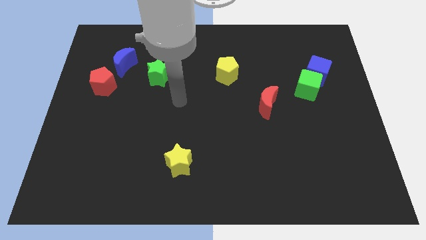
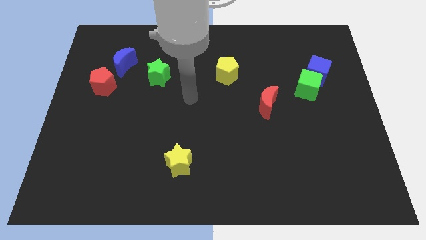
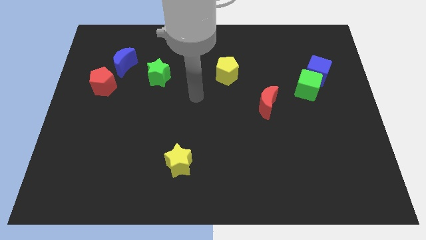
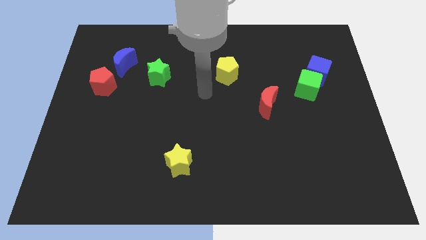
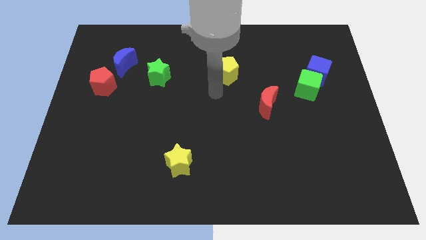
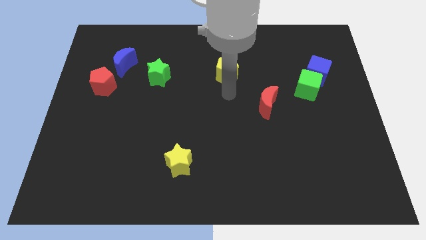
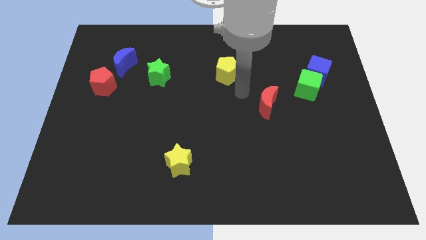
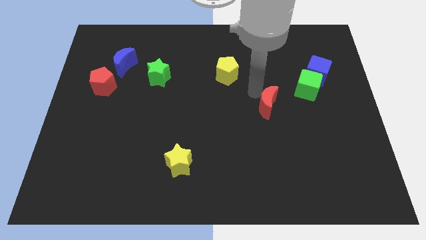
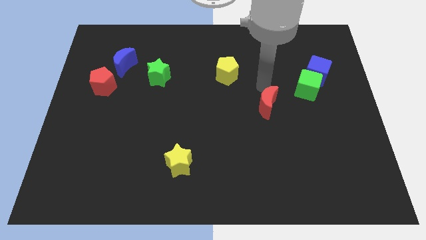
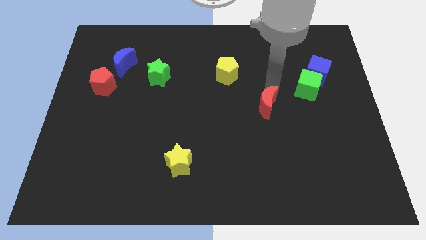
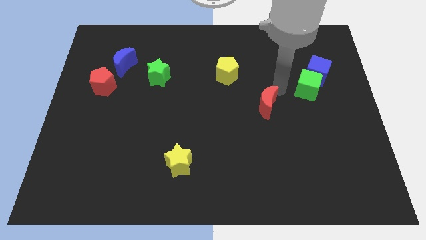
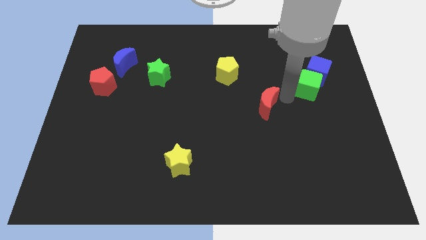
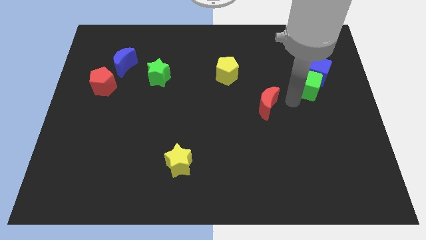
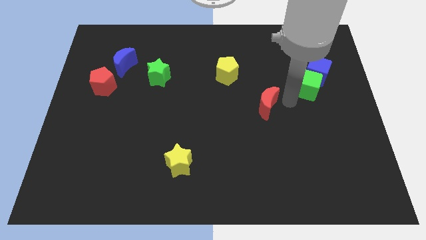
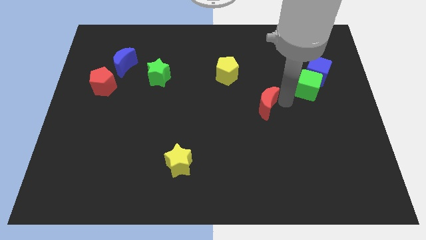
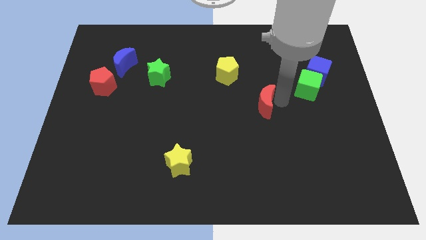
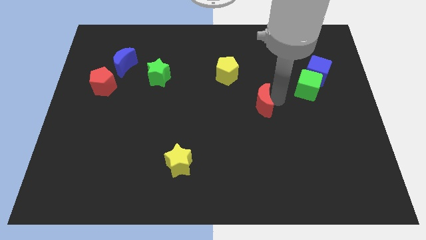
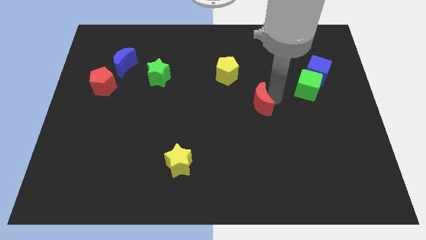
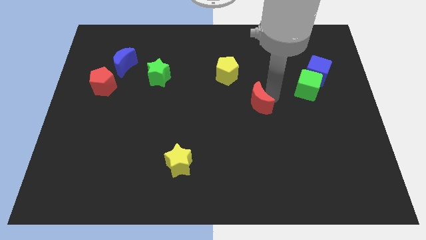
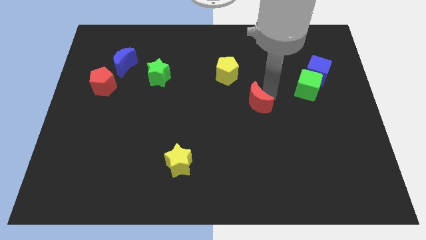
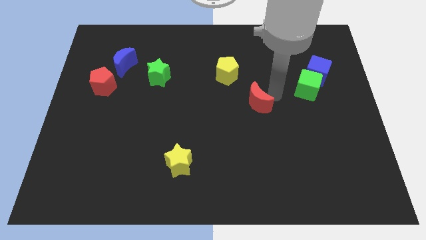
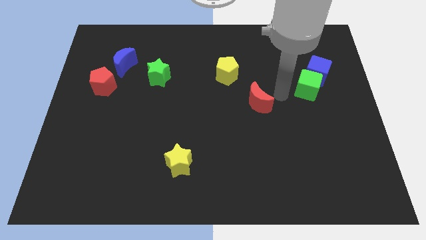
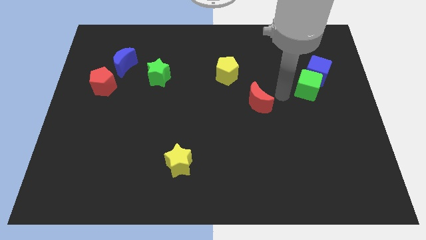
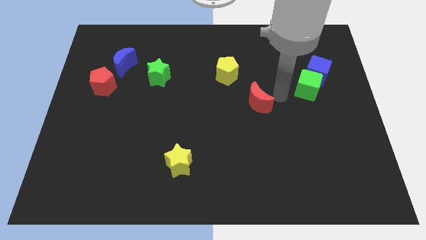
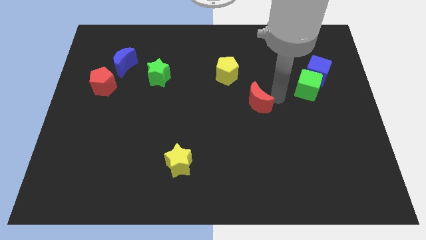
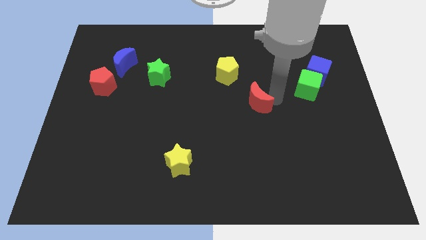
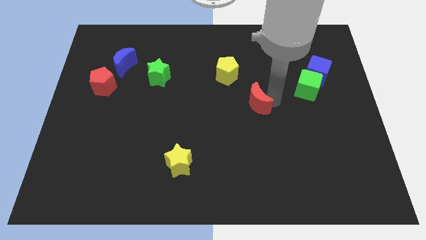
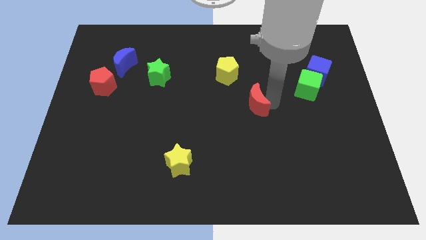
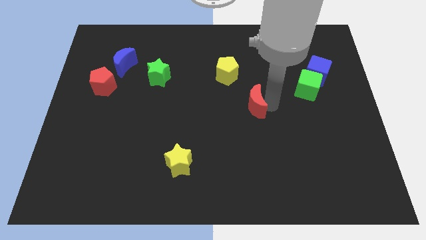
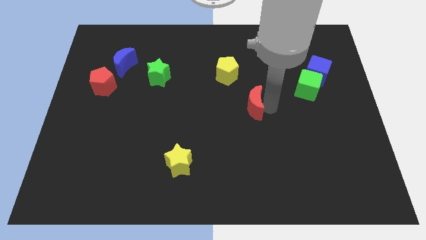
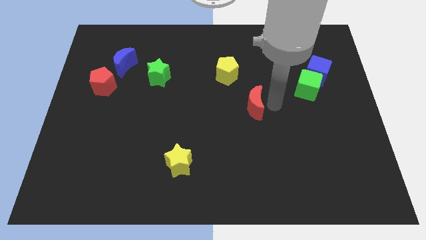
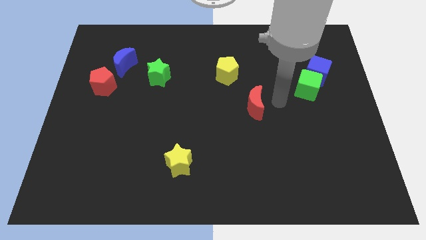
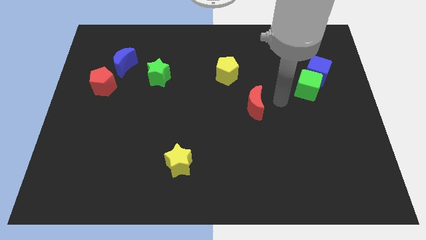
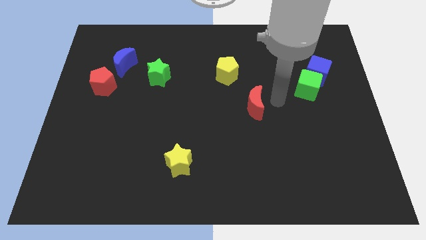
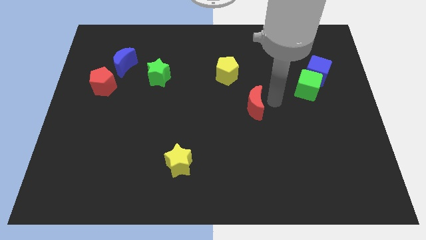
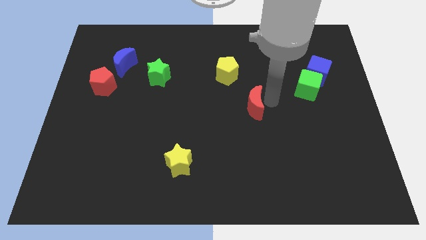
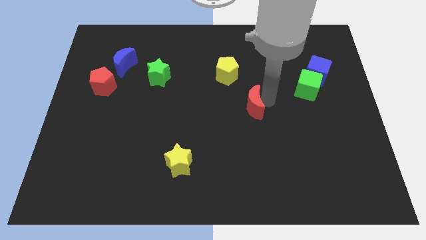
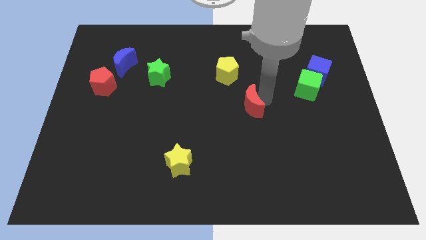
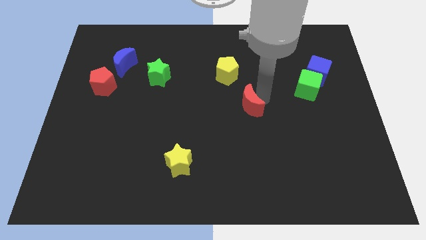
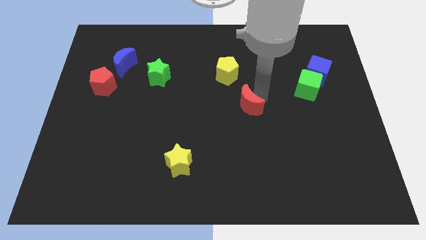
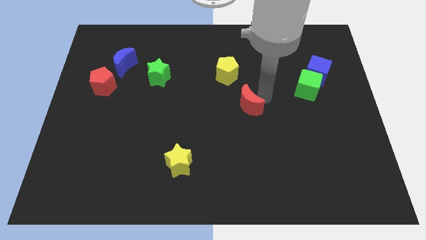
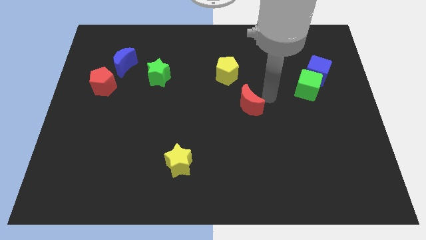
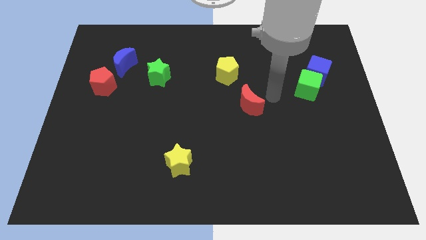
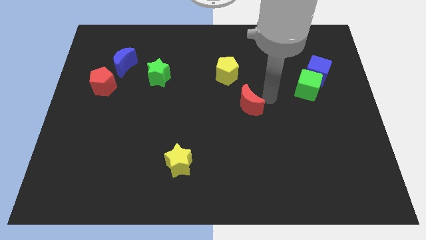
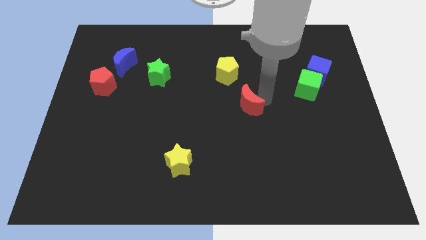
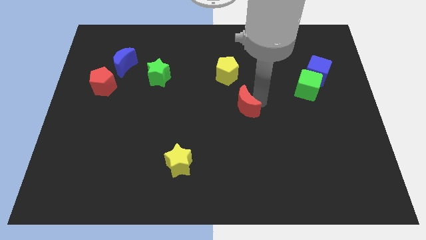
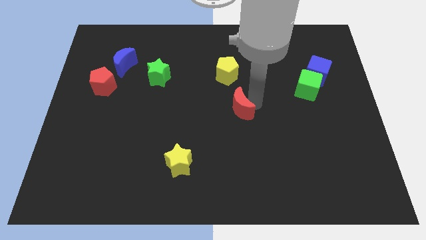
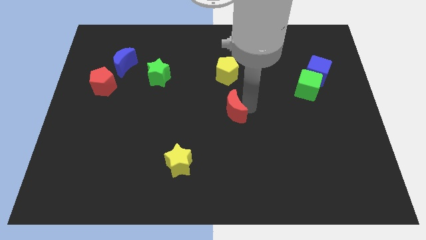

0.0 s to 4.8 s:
push the red moon a bit to the left

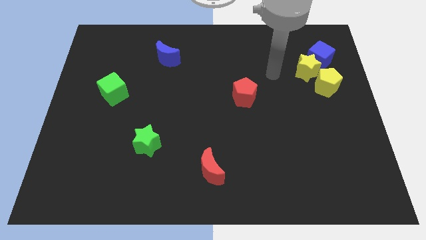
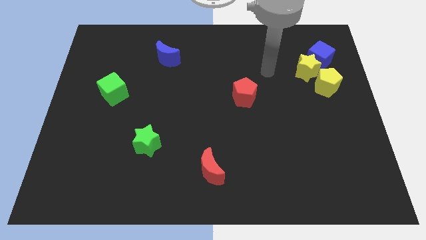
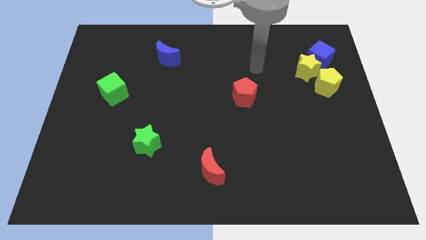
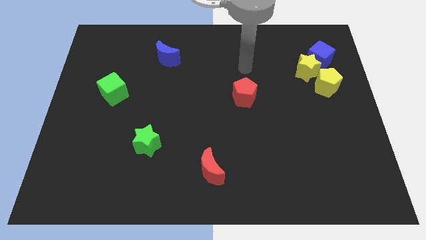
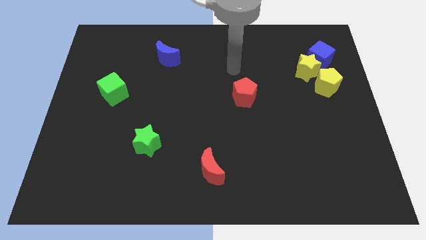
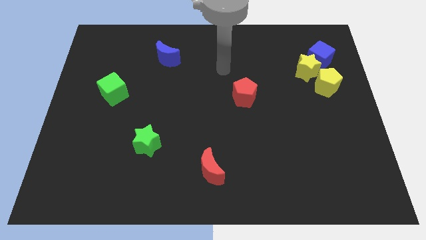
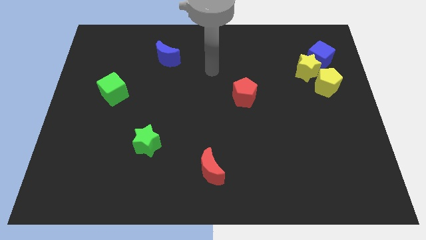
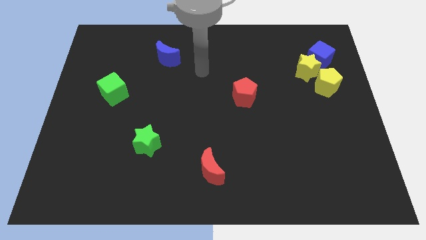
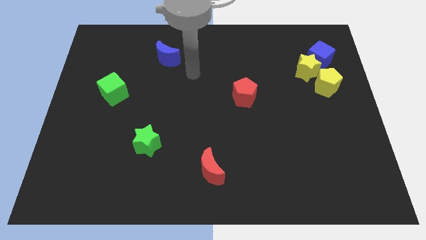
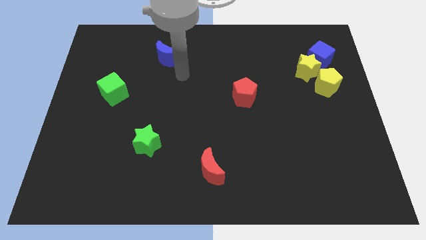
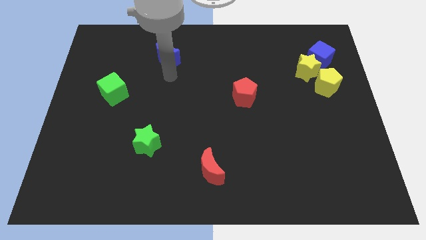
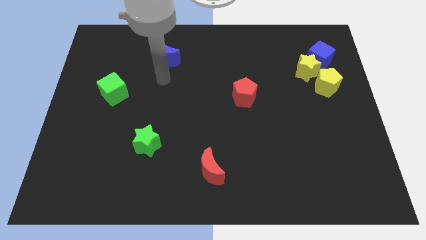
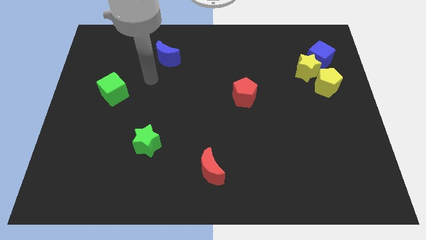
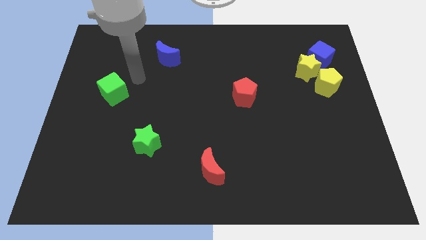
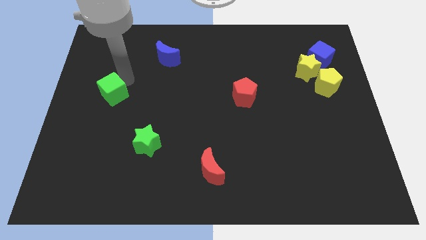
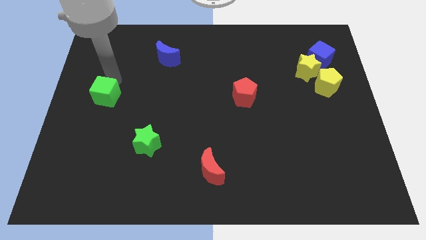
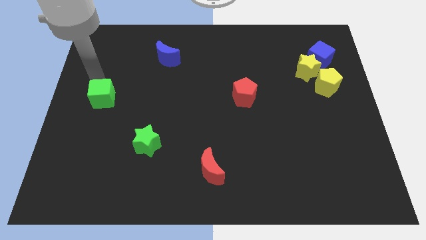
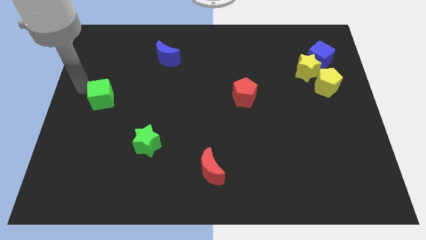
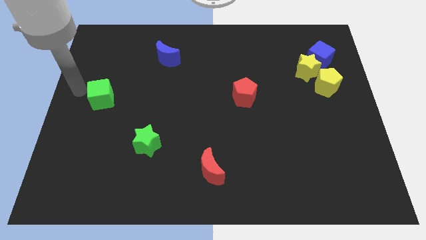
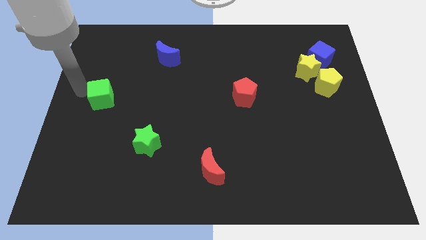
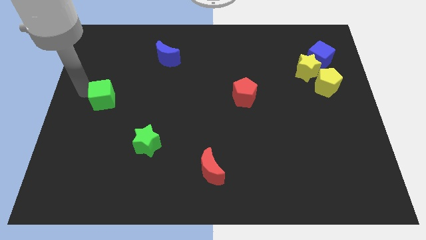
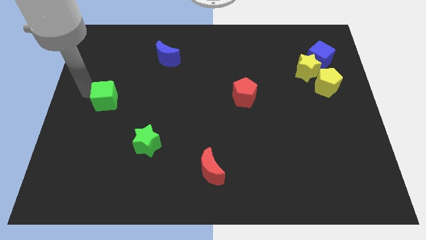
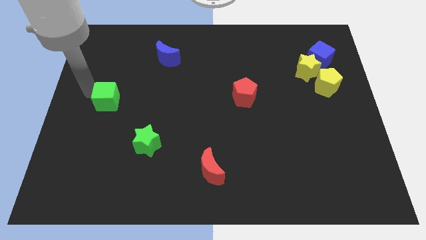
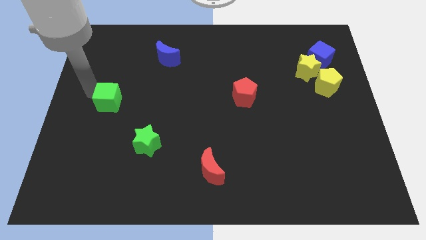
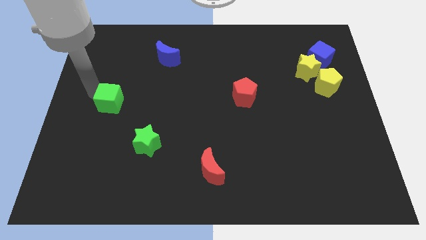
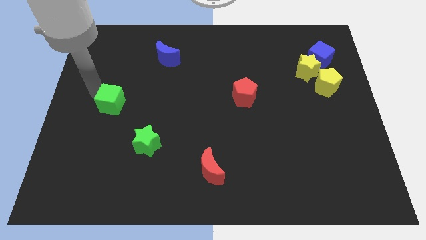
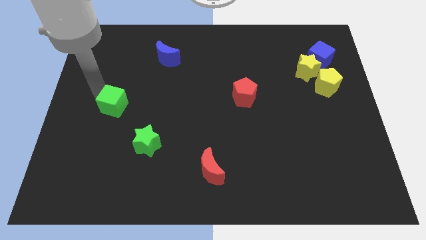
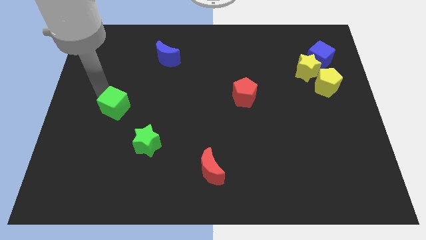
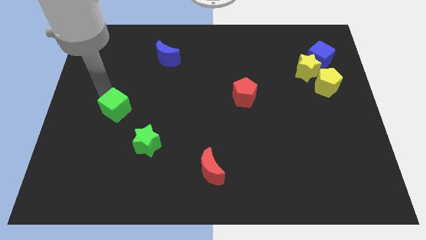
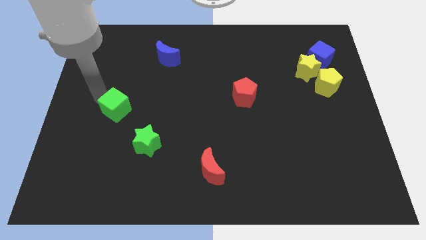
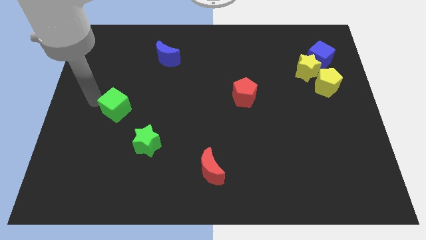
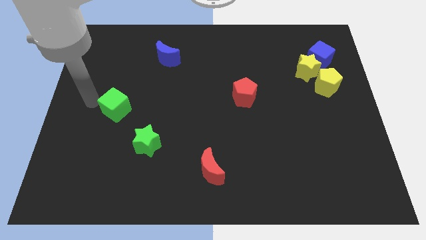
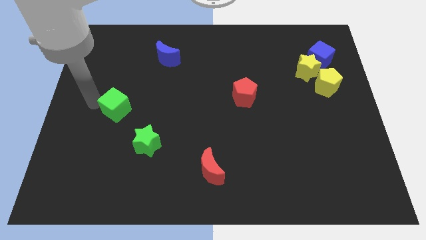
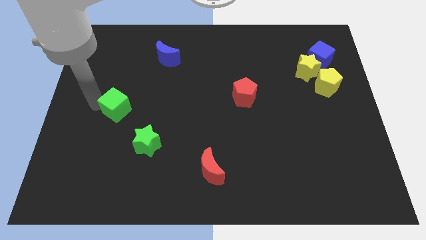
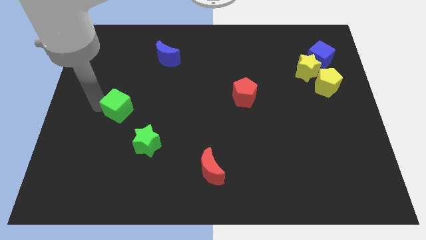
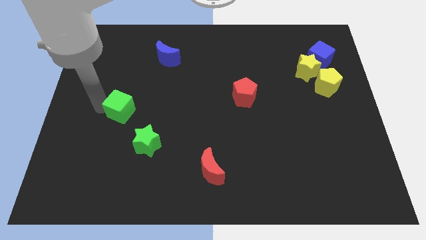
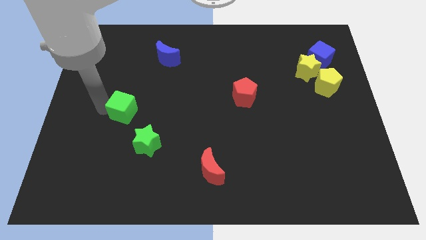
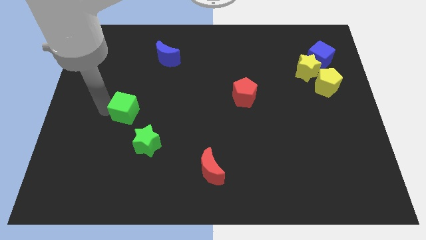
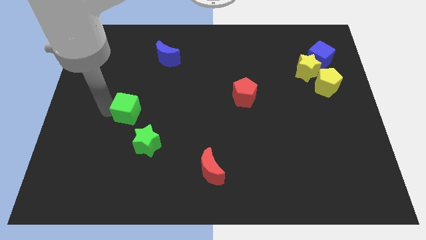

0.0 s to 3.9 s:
slightly move the green cube diagonally downwards and right
